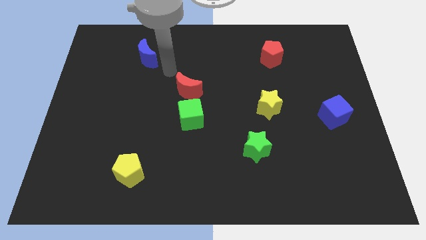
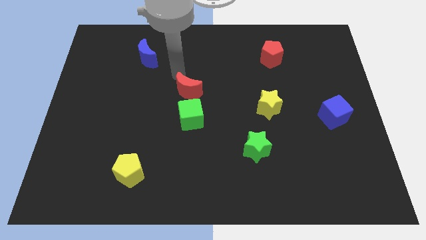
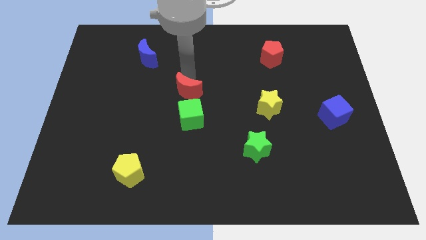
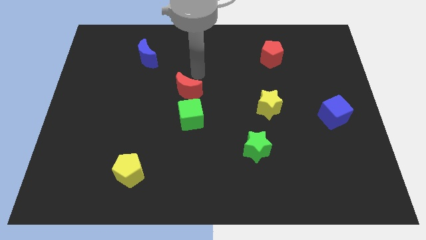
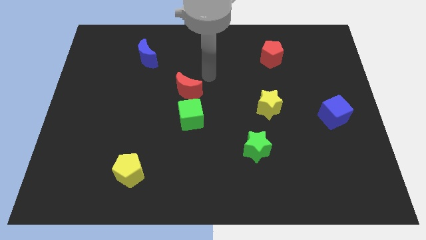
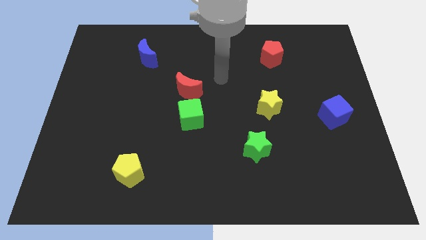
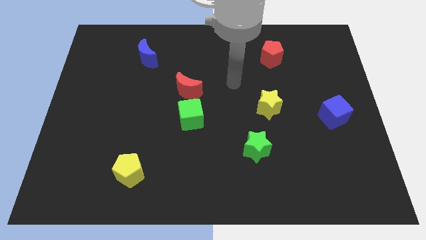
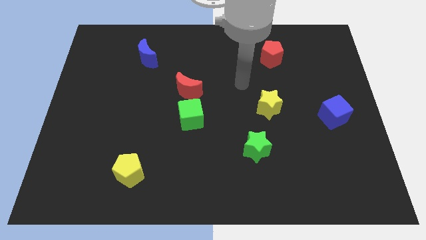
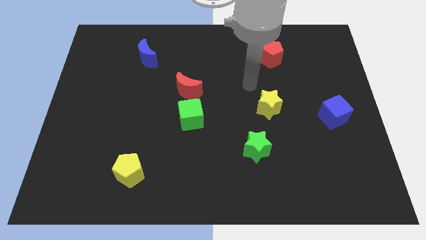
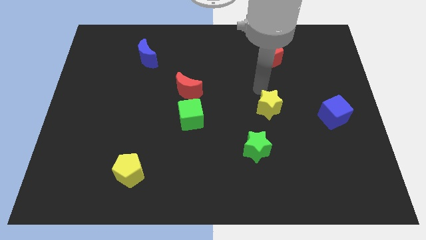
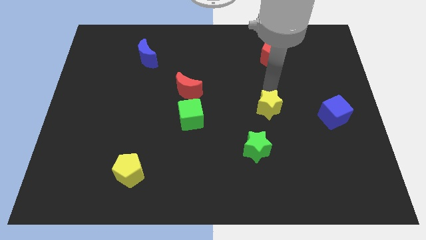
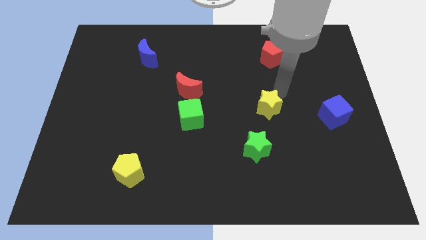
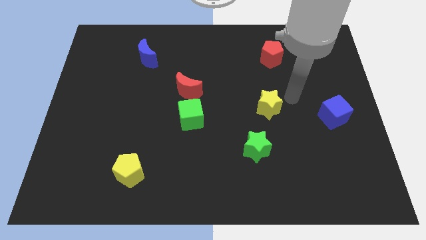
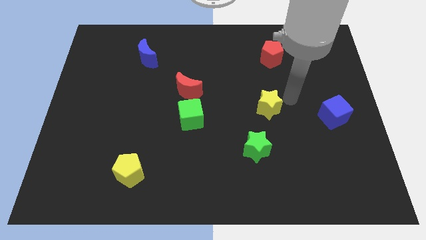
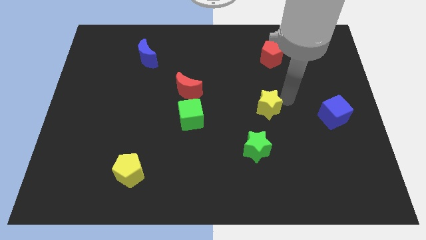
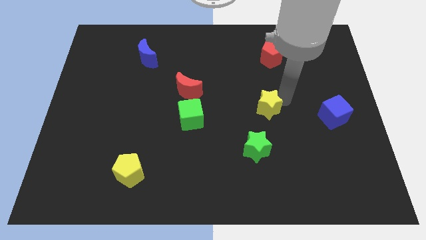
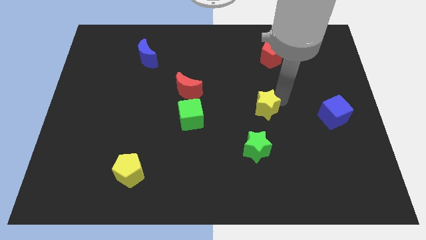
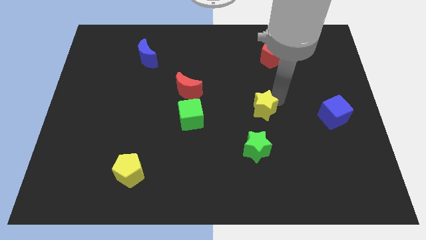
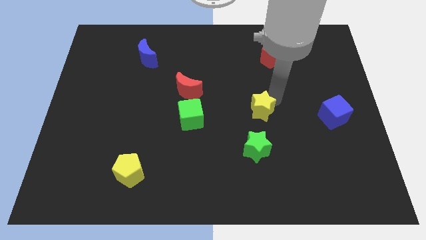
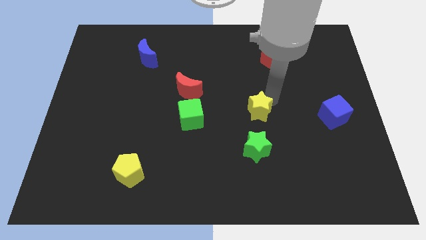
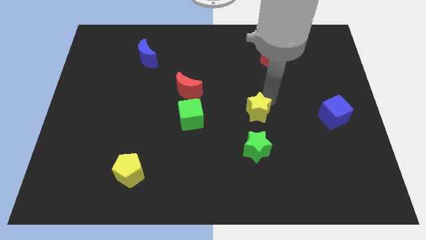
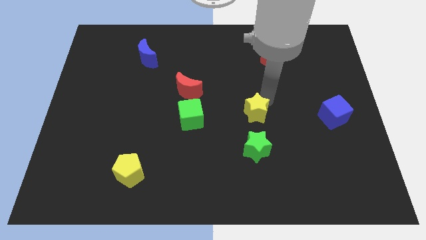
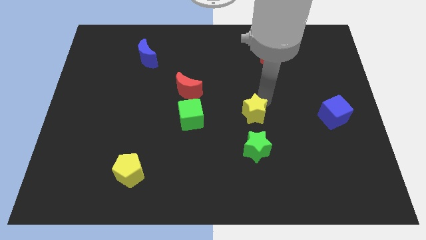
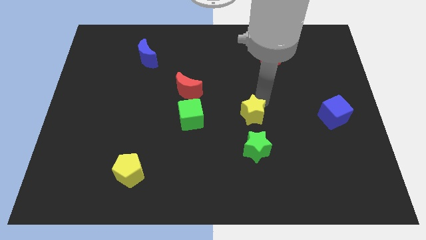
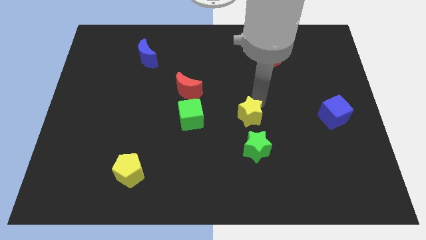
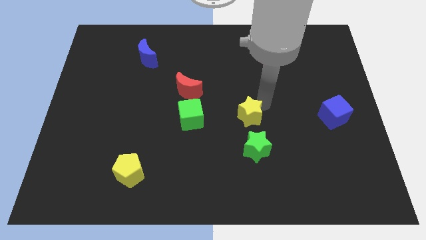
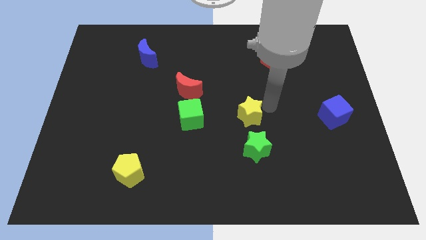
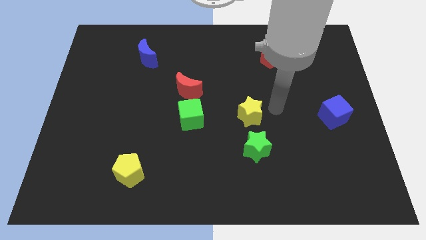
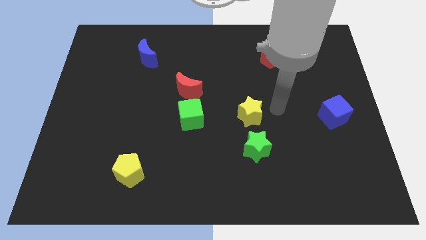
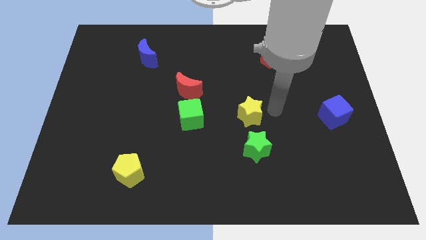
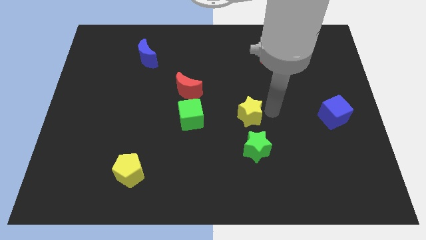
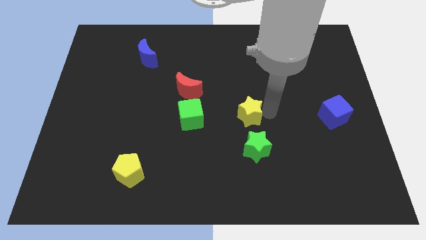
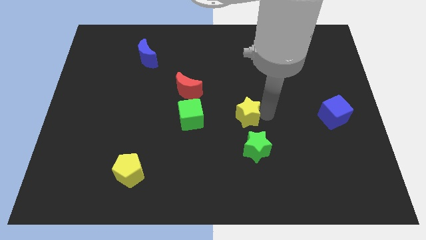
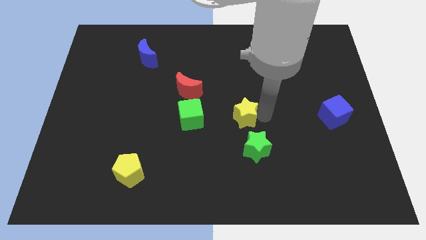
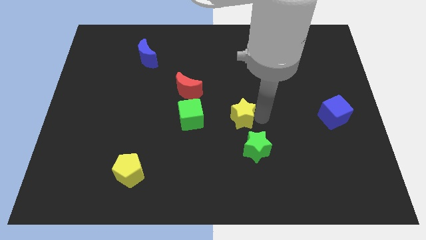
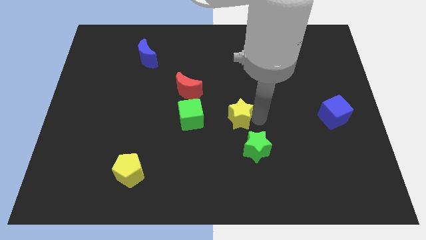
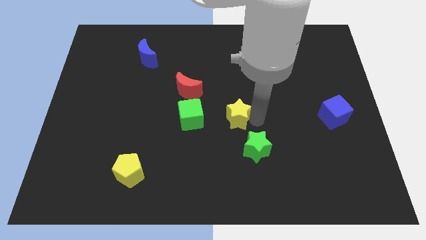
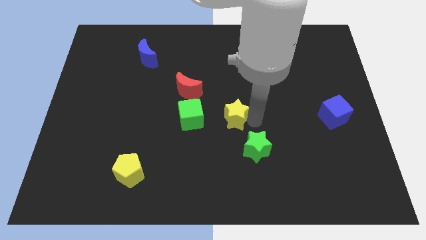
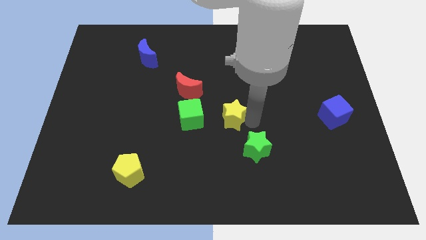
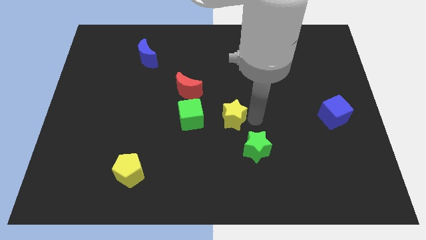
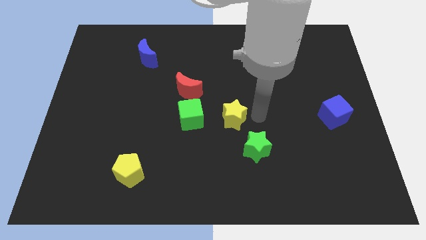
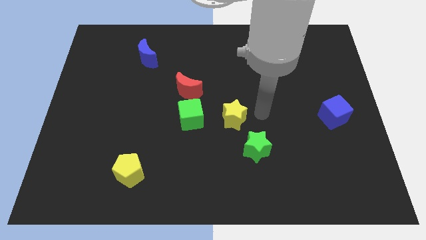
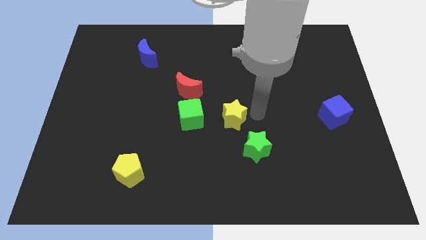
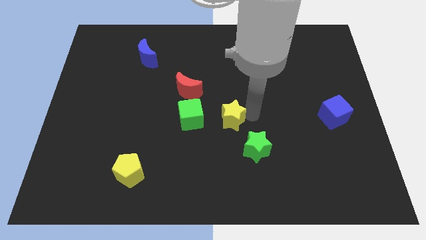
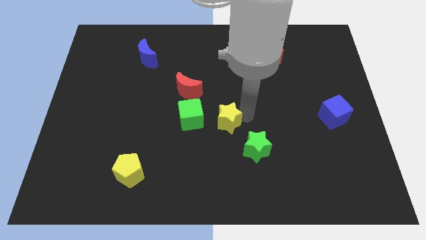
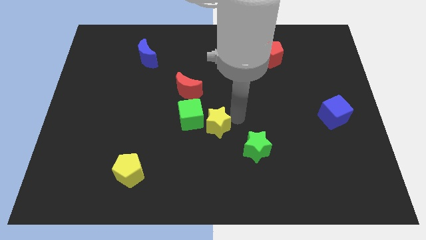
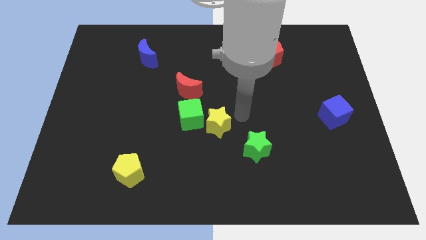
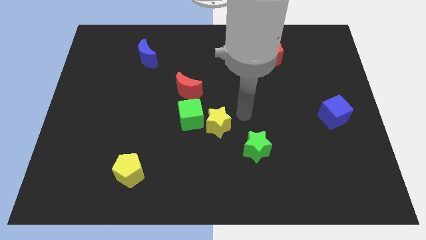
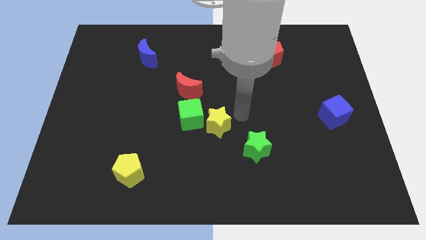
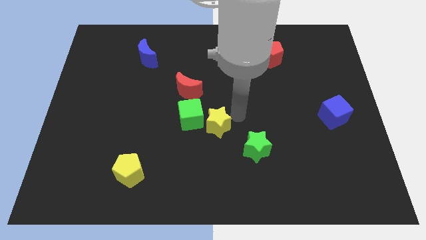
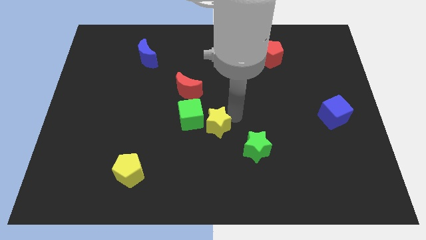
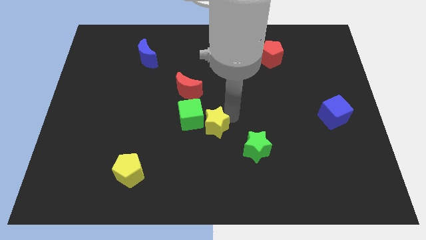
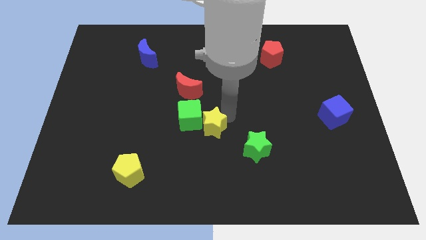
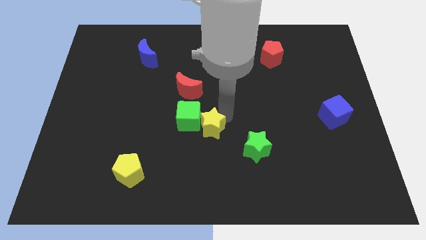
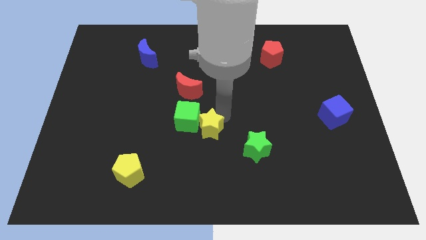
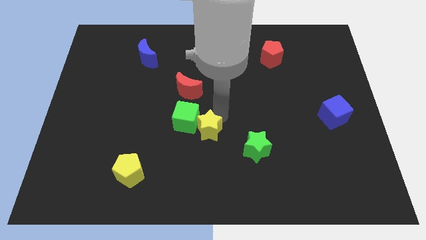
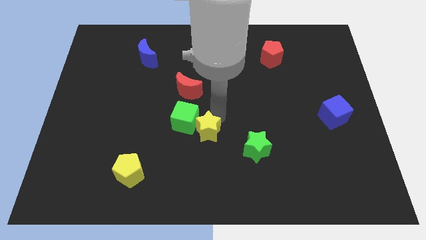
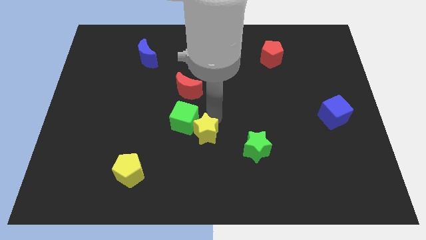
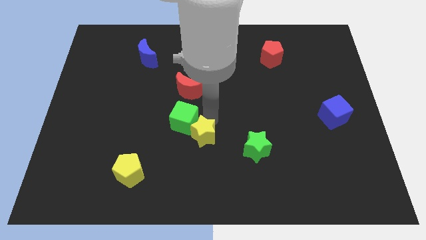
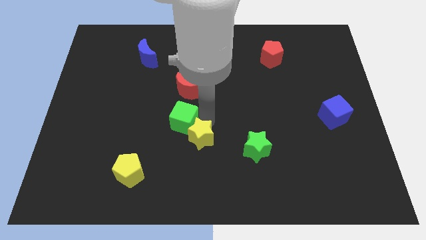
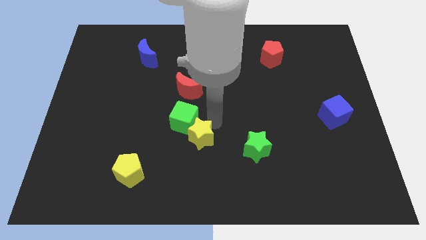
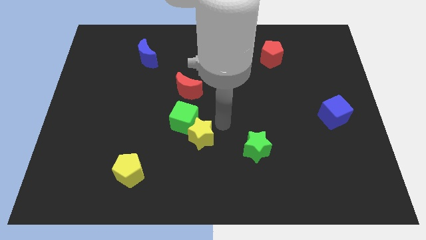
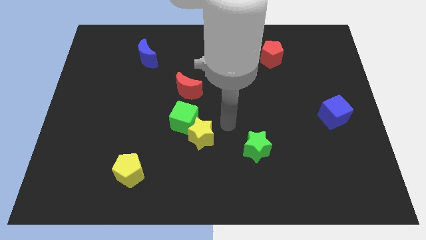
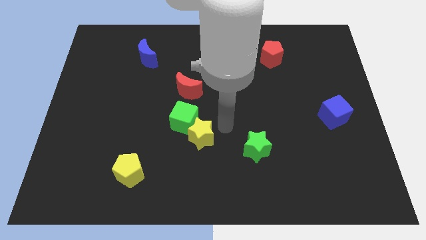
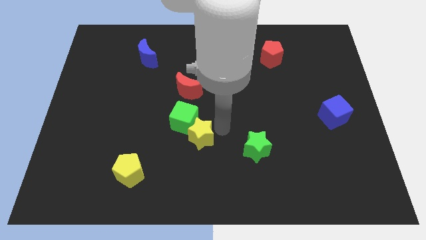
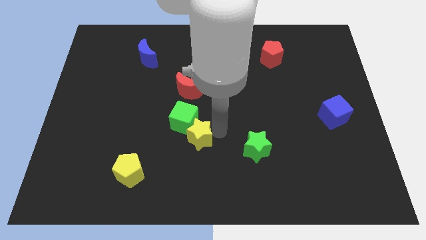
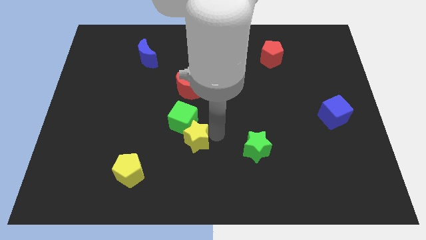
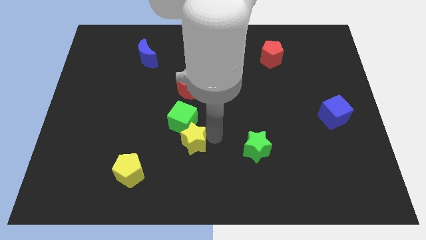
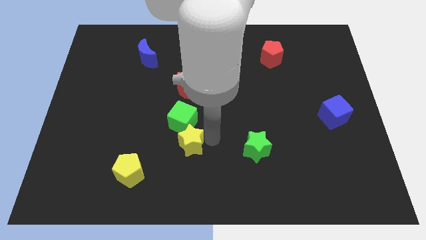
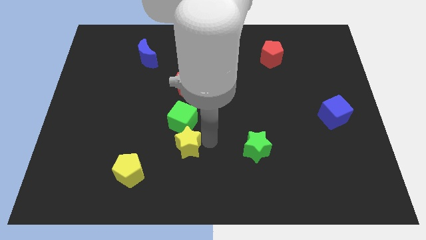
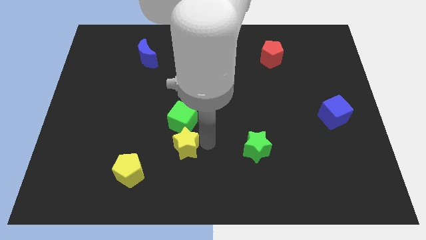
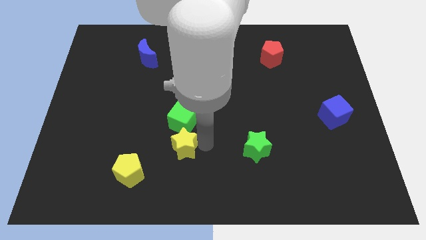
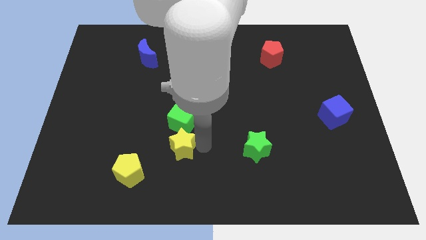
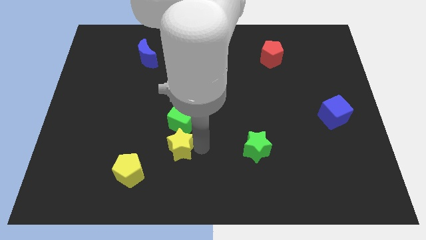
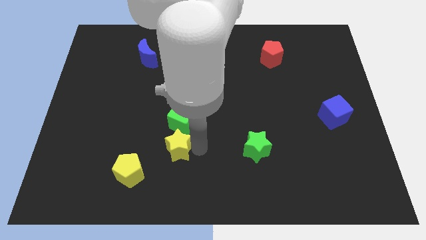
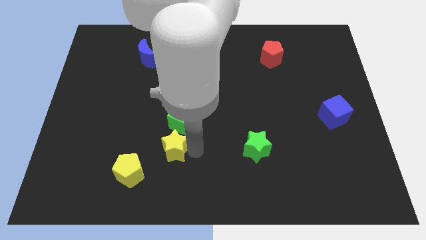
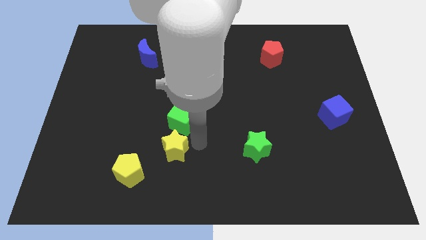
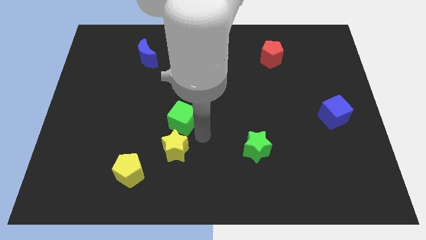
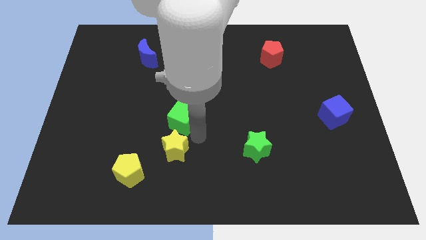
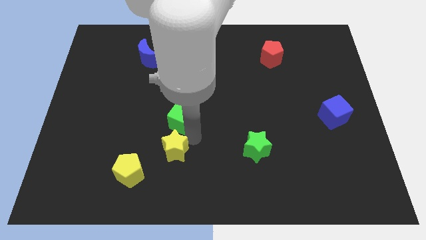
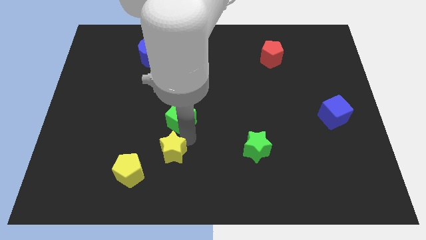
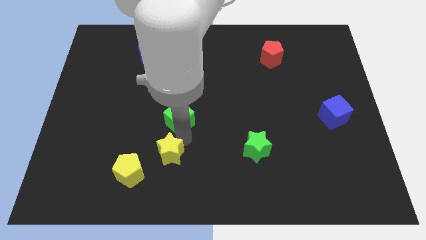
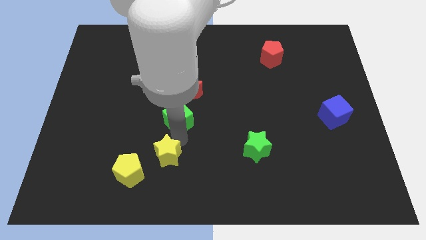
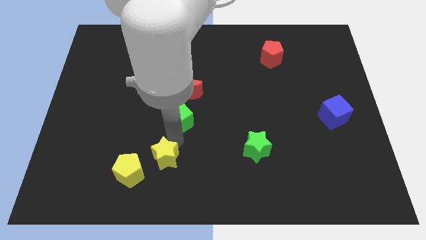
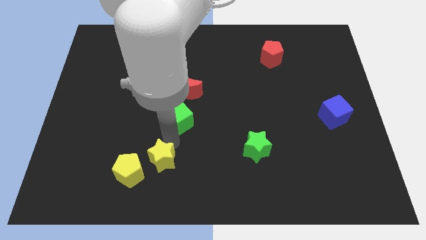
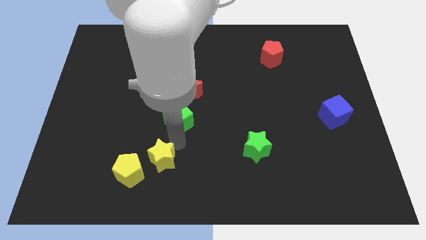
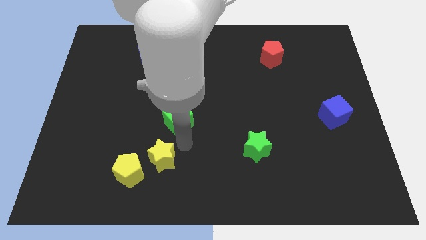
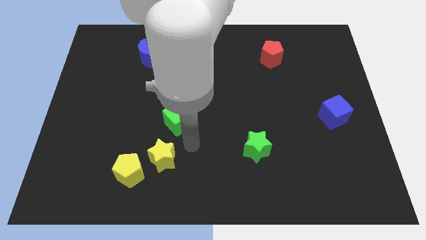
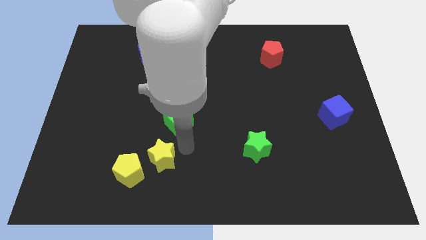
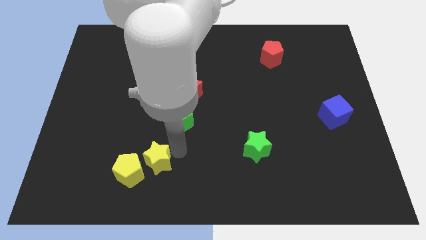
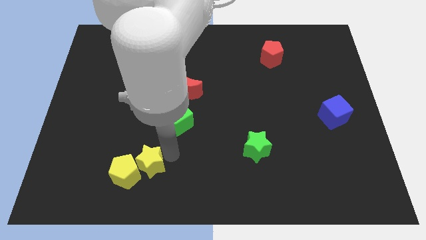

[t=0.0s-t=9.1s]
move the yellow star next to the yellow pentagon
